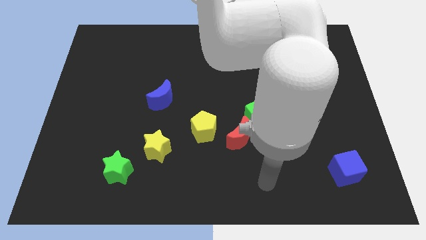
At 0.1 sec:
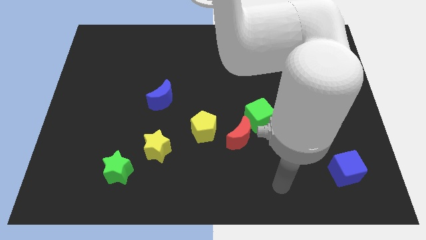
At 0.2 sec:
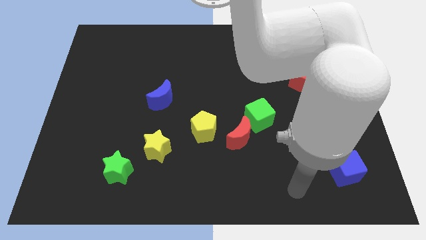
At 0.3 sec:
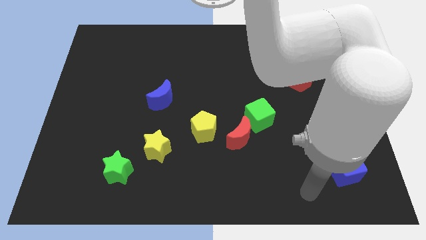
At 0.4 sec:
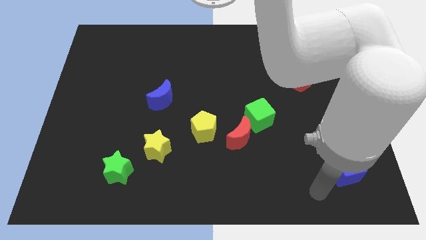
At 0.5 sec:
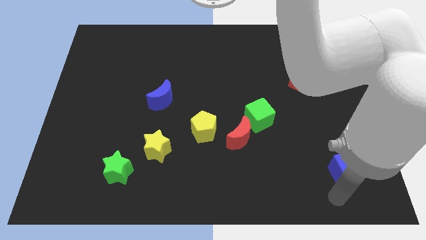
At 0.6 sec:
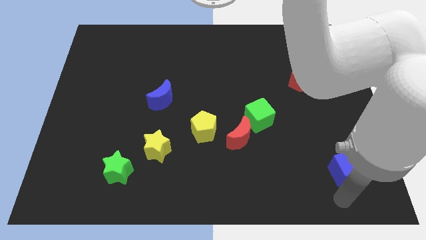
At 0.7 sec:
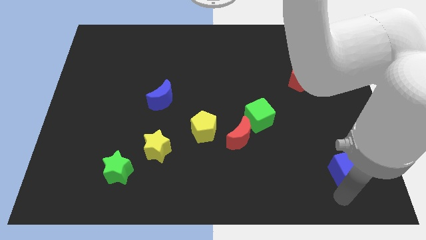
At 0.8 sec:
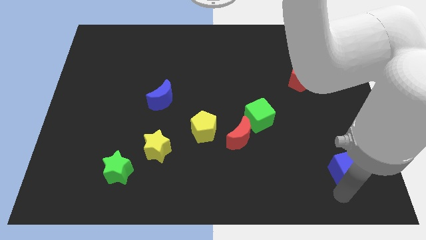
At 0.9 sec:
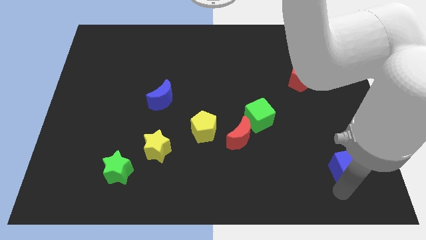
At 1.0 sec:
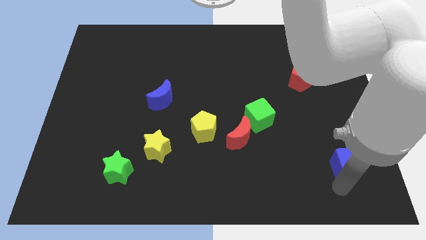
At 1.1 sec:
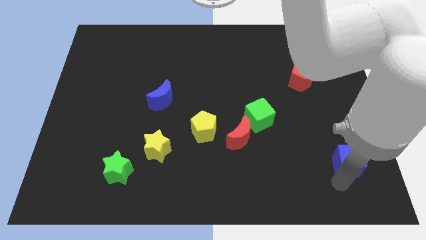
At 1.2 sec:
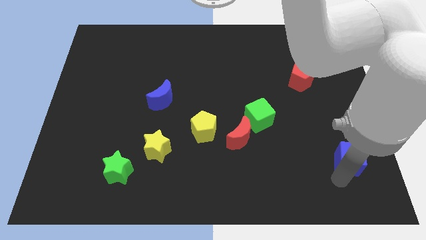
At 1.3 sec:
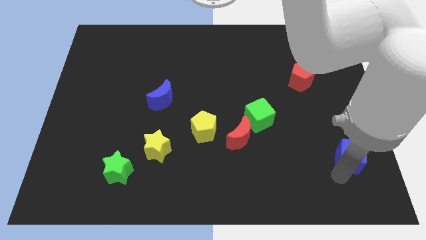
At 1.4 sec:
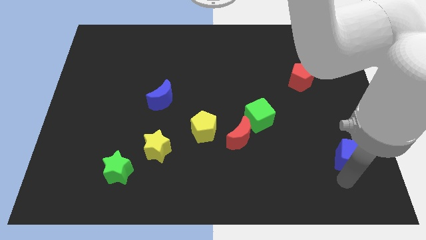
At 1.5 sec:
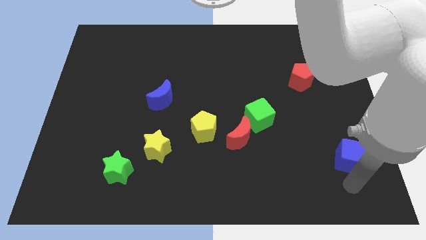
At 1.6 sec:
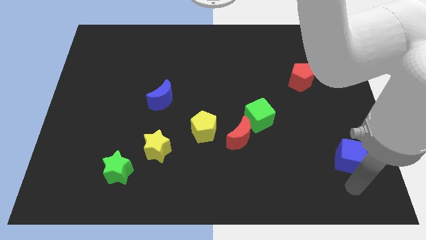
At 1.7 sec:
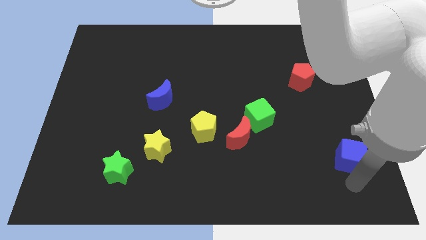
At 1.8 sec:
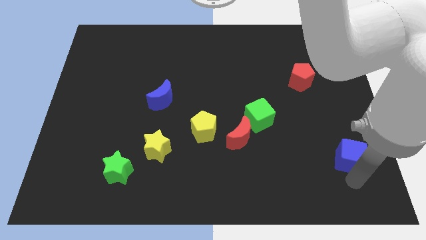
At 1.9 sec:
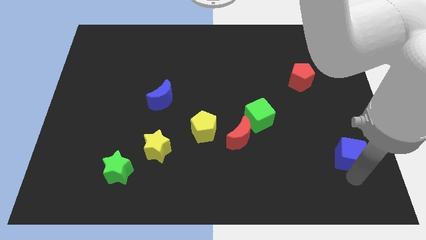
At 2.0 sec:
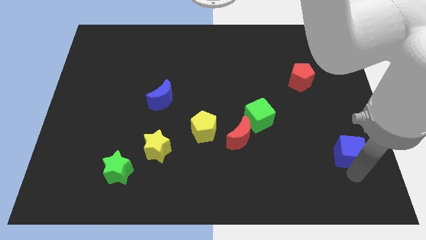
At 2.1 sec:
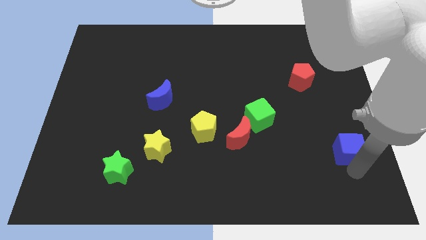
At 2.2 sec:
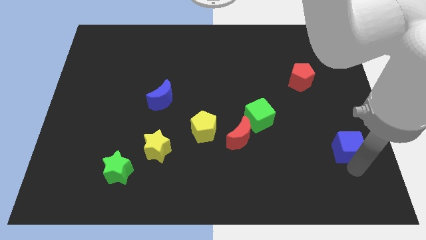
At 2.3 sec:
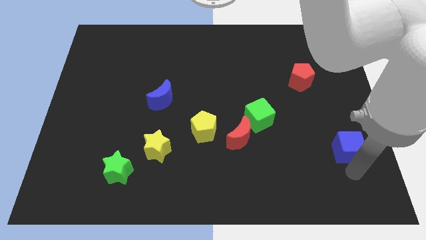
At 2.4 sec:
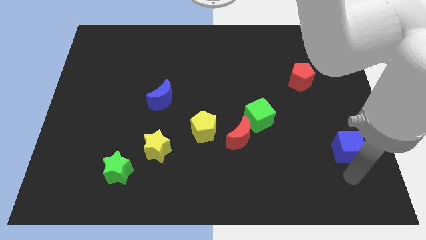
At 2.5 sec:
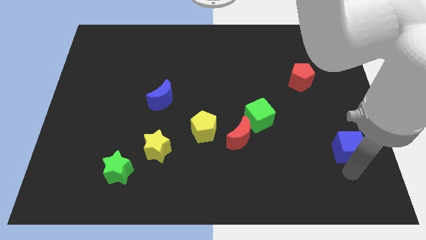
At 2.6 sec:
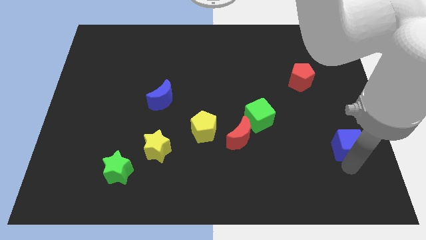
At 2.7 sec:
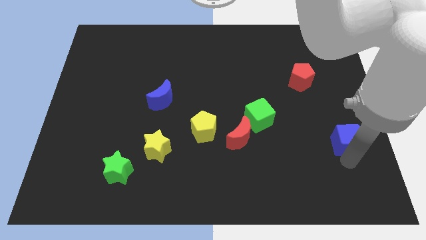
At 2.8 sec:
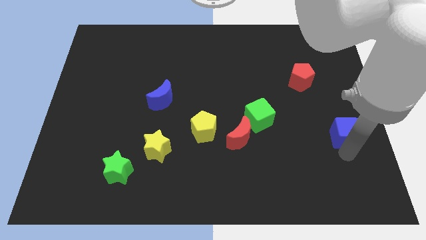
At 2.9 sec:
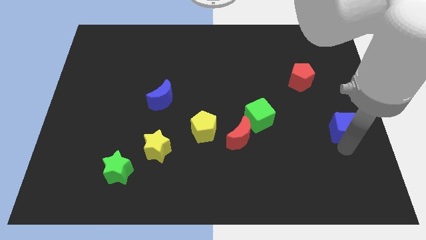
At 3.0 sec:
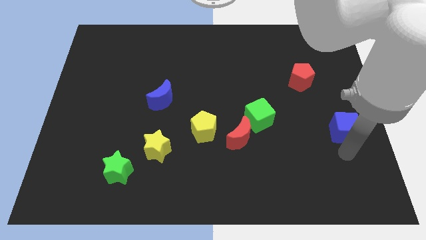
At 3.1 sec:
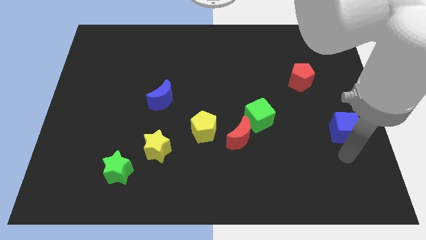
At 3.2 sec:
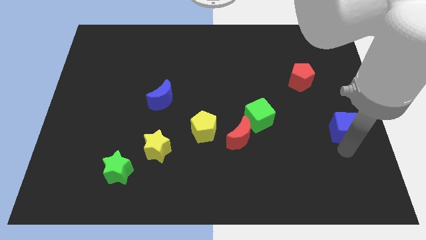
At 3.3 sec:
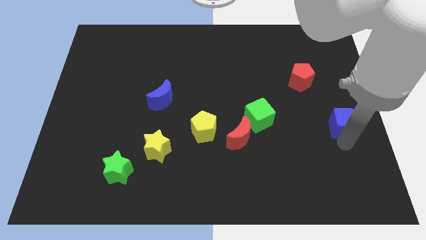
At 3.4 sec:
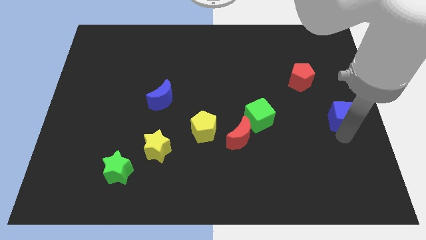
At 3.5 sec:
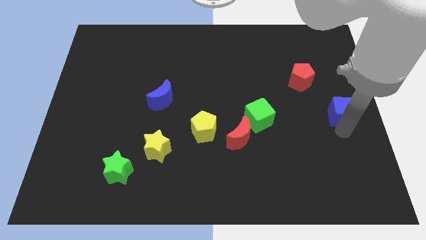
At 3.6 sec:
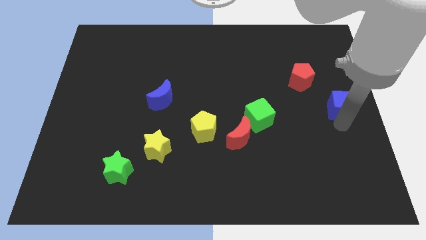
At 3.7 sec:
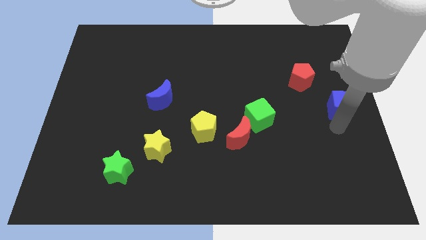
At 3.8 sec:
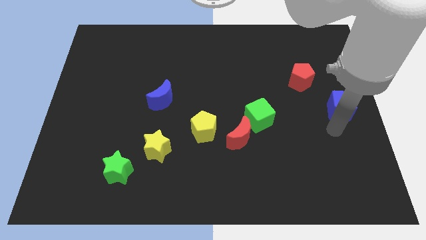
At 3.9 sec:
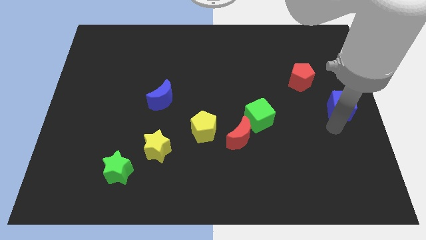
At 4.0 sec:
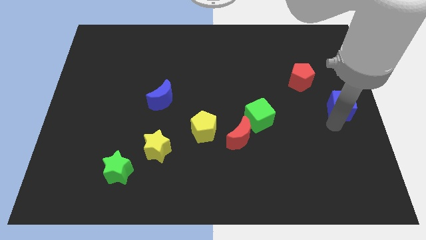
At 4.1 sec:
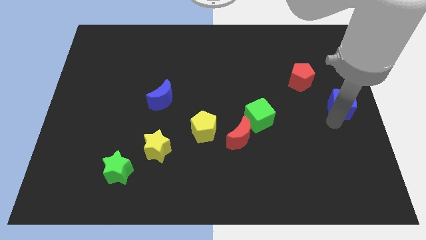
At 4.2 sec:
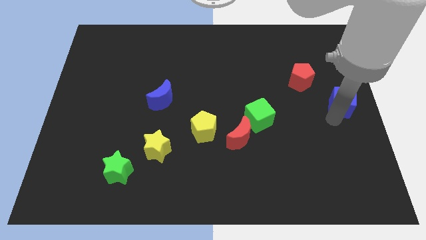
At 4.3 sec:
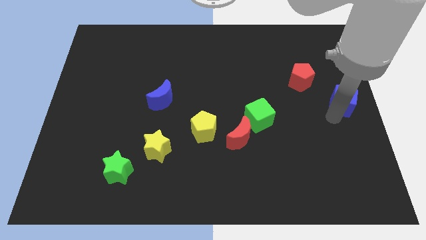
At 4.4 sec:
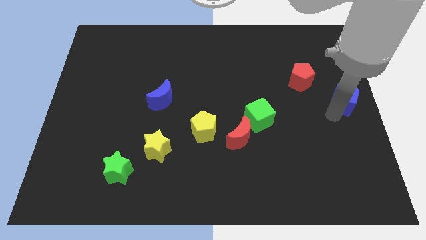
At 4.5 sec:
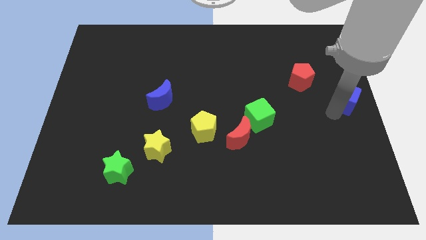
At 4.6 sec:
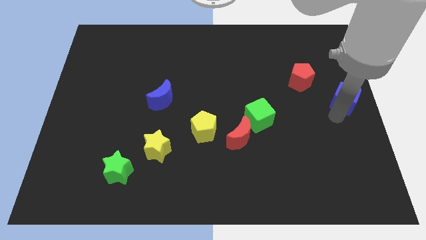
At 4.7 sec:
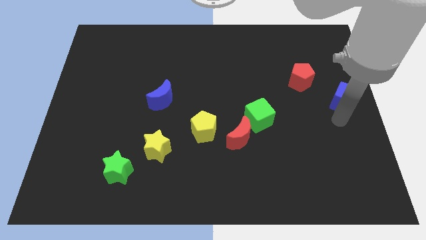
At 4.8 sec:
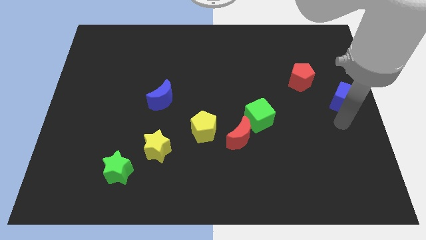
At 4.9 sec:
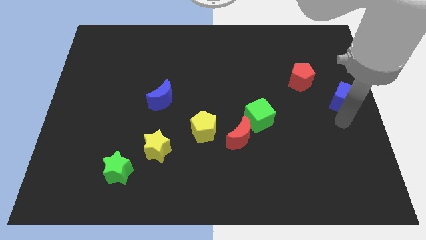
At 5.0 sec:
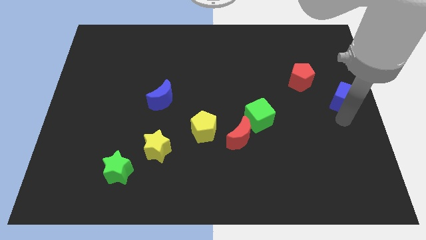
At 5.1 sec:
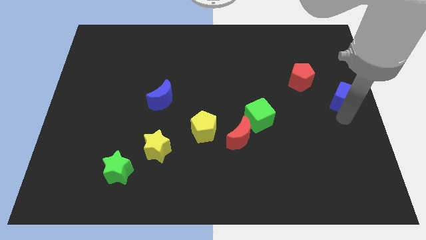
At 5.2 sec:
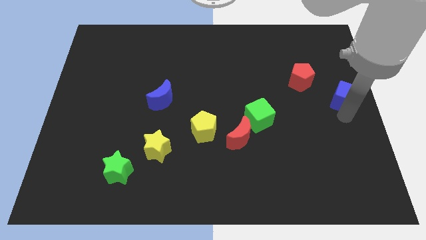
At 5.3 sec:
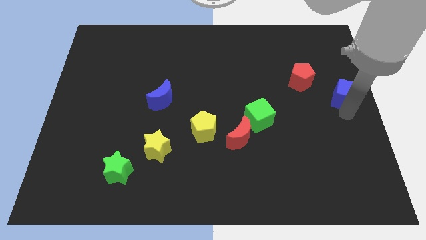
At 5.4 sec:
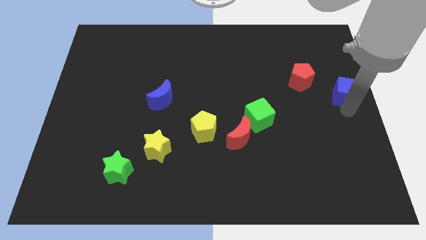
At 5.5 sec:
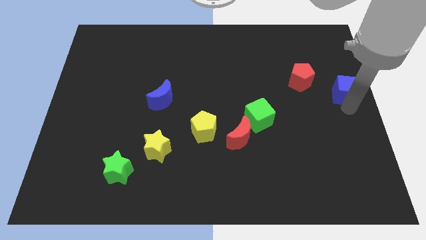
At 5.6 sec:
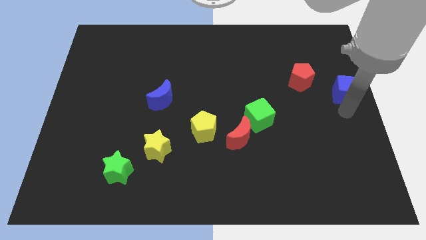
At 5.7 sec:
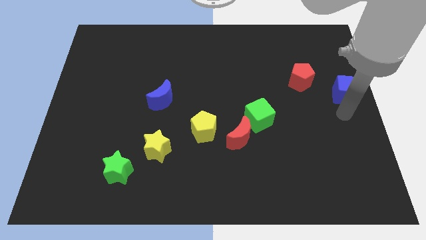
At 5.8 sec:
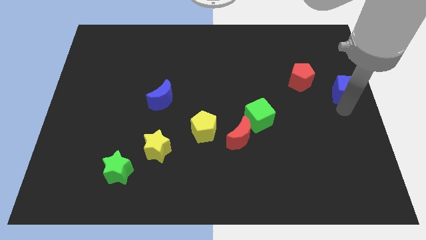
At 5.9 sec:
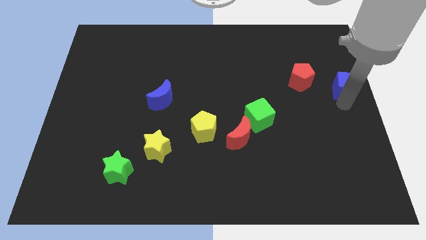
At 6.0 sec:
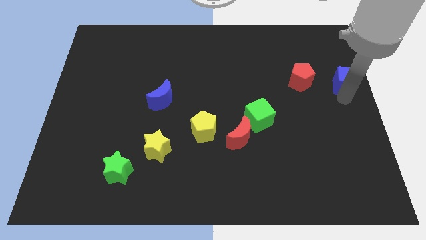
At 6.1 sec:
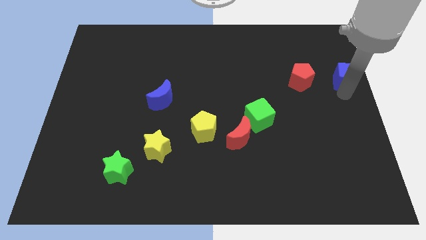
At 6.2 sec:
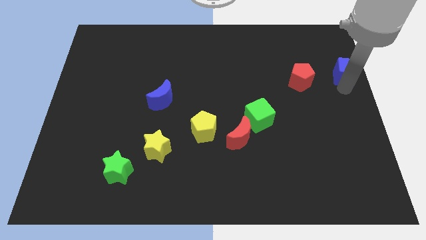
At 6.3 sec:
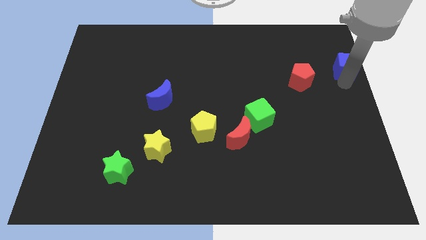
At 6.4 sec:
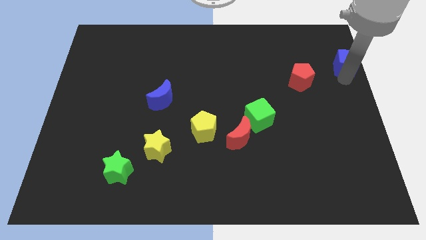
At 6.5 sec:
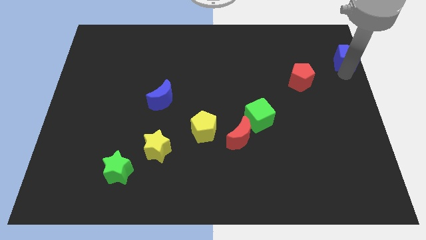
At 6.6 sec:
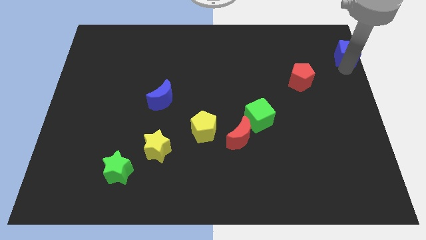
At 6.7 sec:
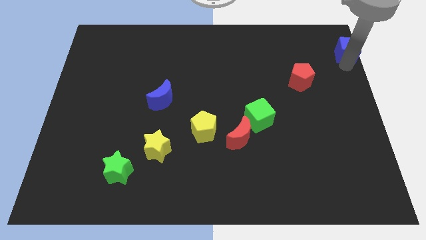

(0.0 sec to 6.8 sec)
put the blue cube to the top right
